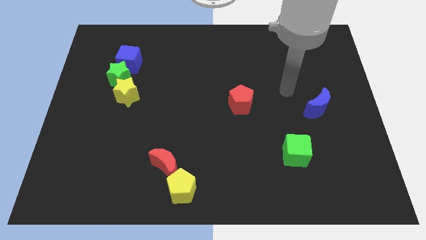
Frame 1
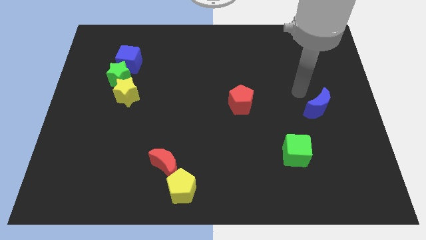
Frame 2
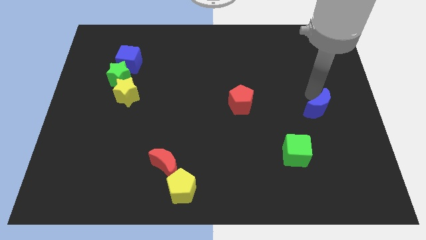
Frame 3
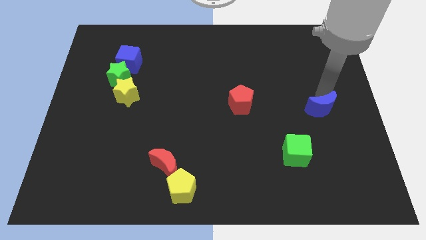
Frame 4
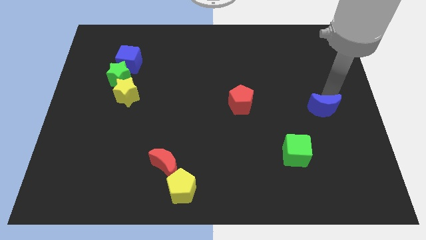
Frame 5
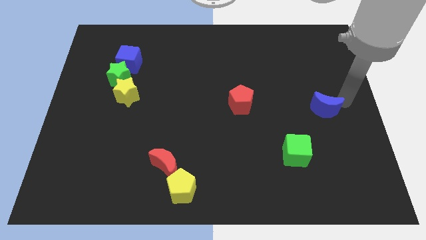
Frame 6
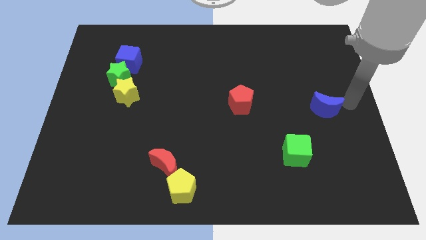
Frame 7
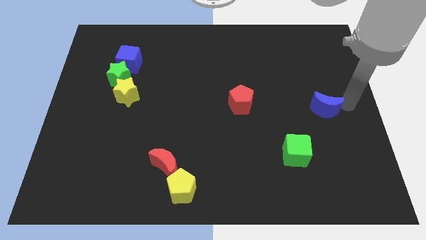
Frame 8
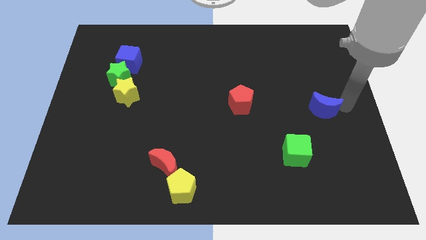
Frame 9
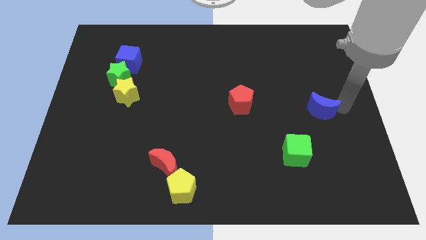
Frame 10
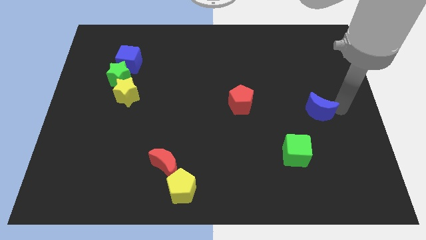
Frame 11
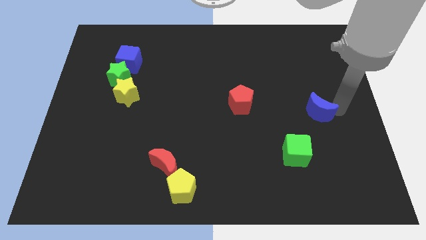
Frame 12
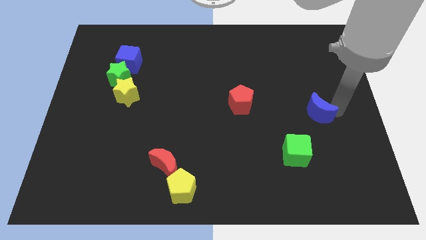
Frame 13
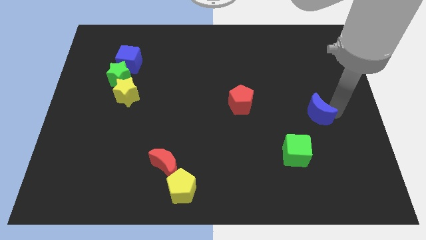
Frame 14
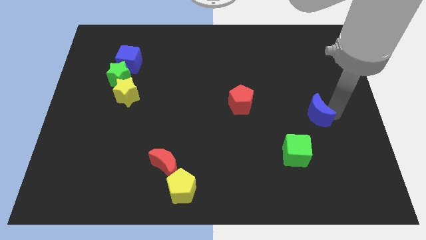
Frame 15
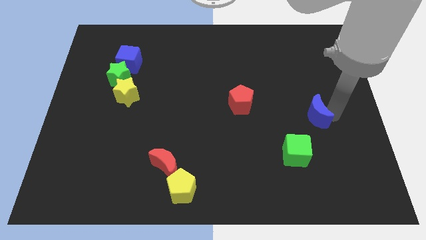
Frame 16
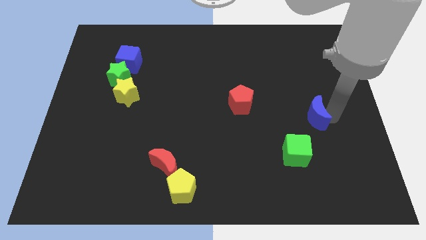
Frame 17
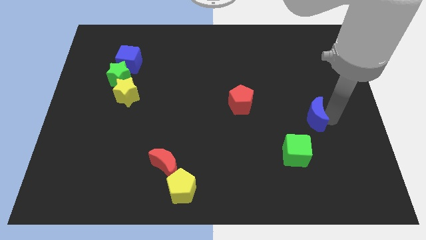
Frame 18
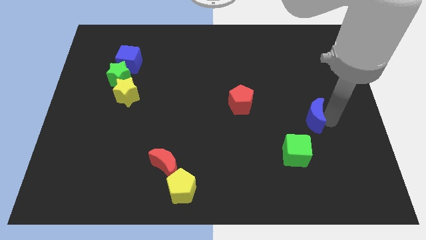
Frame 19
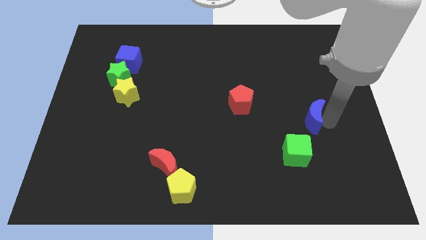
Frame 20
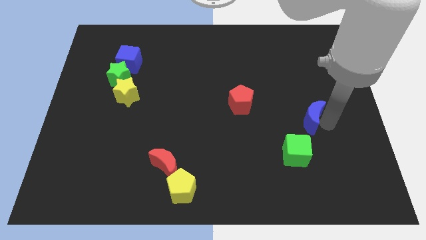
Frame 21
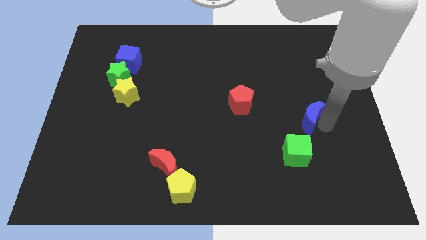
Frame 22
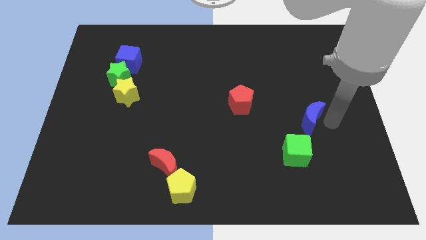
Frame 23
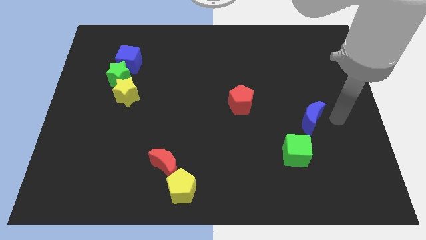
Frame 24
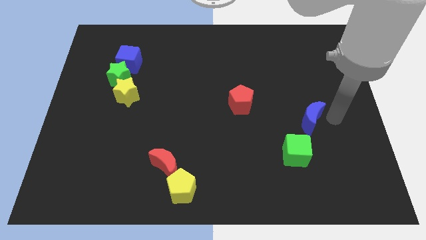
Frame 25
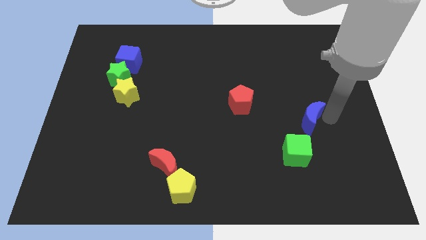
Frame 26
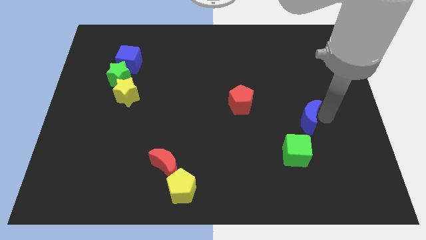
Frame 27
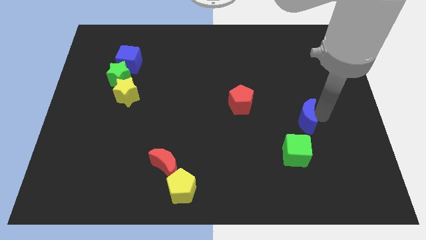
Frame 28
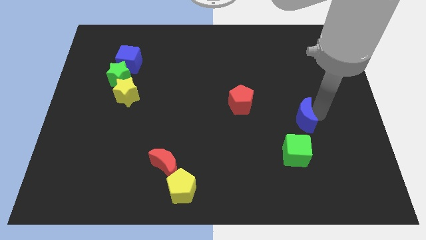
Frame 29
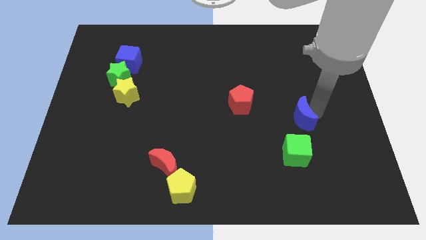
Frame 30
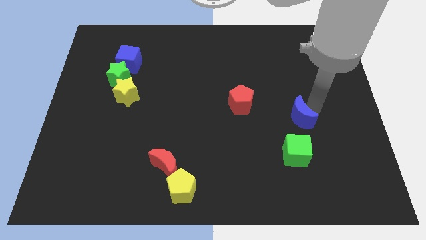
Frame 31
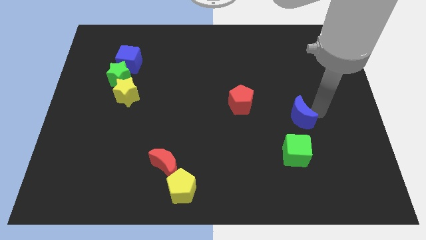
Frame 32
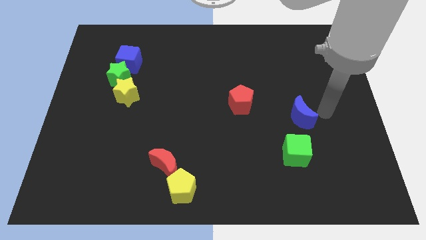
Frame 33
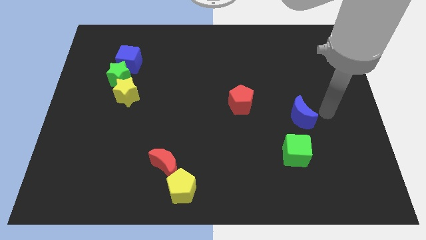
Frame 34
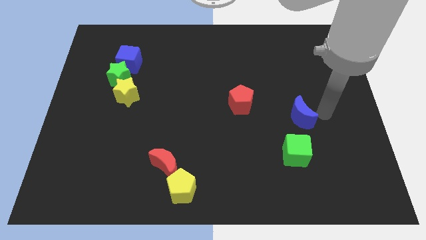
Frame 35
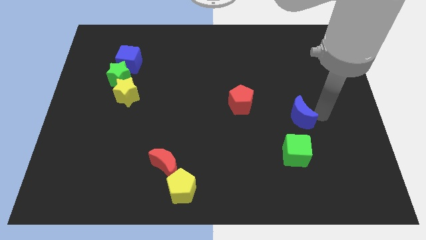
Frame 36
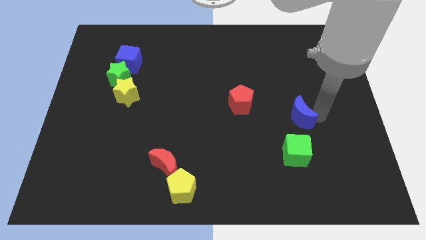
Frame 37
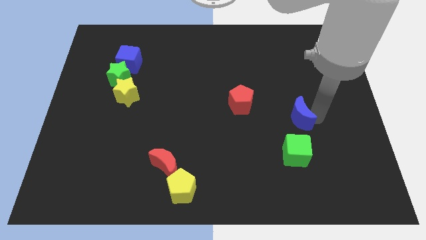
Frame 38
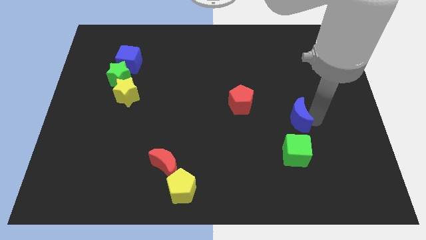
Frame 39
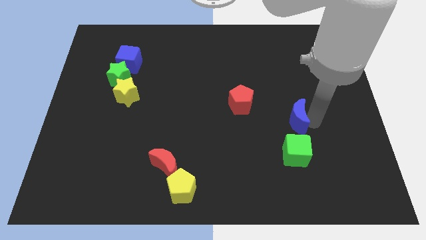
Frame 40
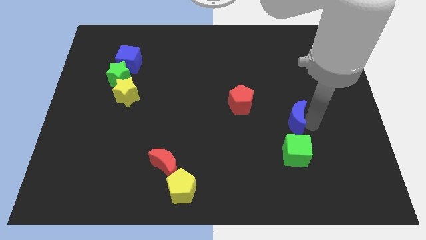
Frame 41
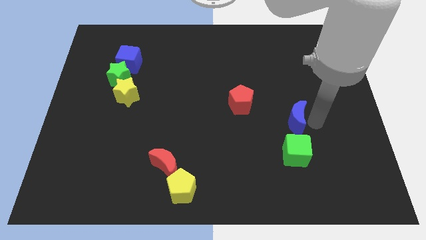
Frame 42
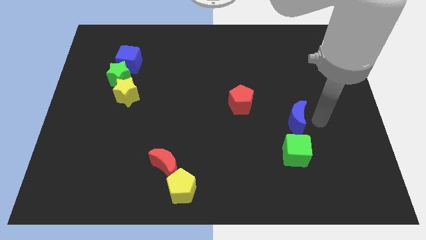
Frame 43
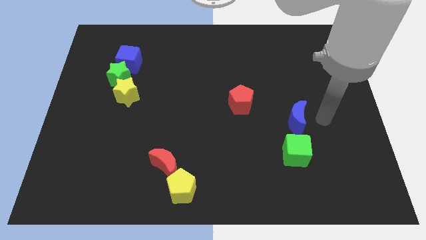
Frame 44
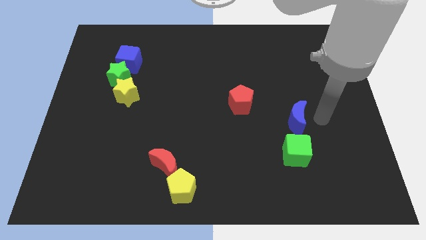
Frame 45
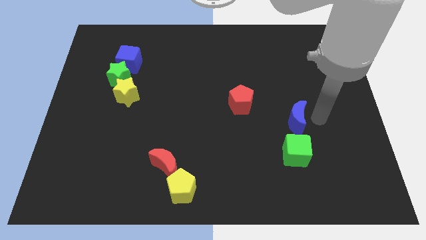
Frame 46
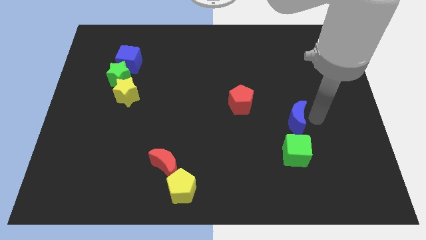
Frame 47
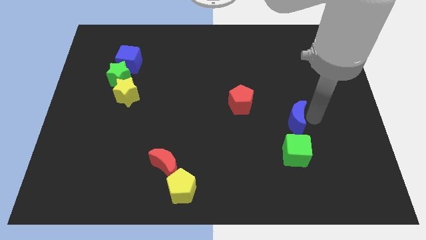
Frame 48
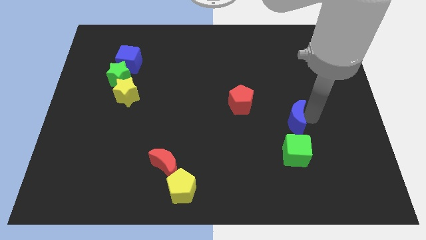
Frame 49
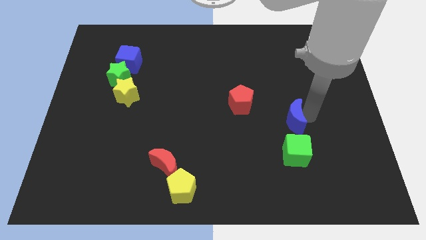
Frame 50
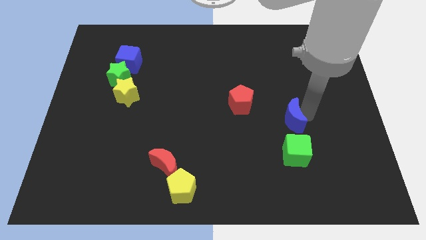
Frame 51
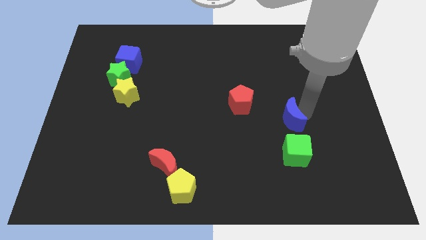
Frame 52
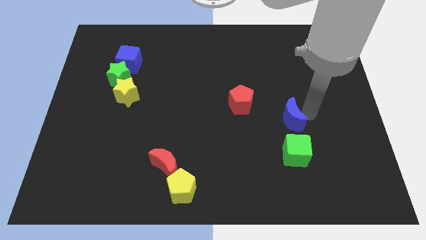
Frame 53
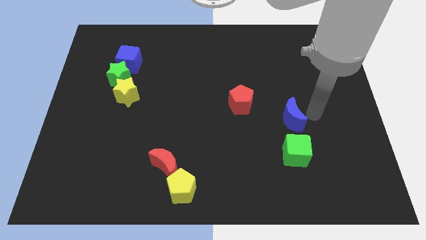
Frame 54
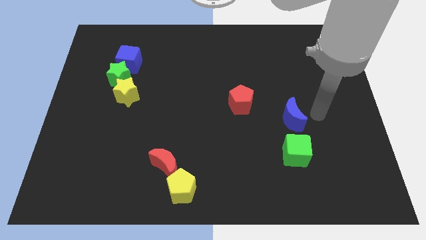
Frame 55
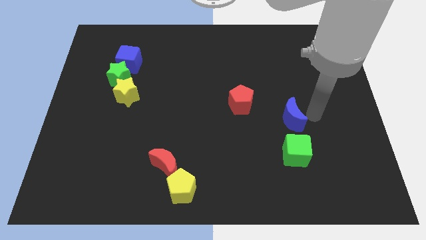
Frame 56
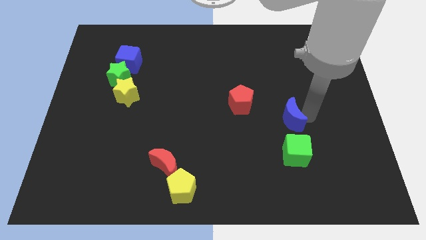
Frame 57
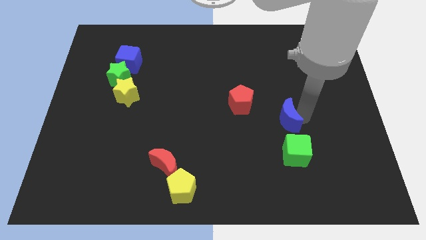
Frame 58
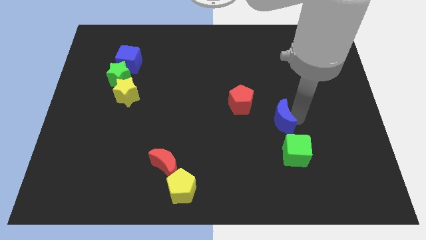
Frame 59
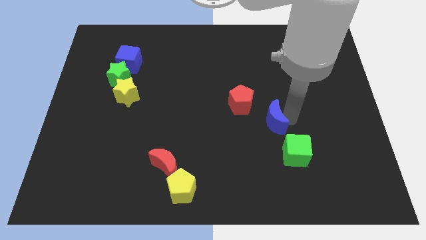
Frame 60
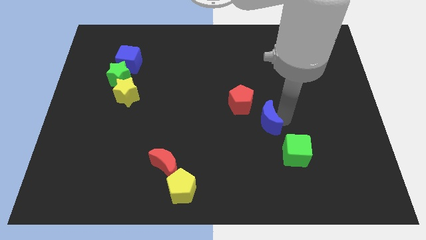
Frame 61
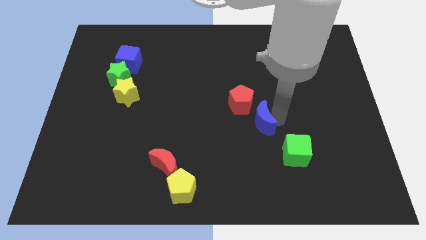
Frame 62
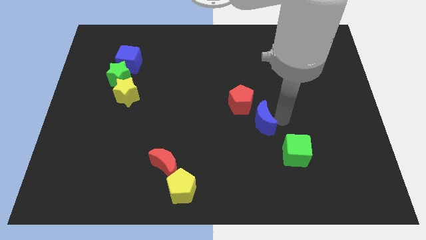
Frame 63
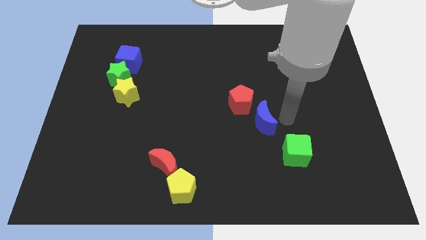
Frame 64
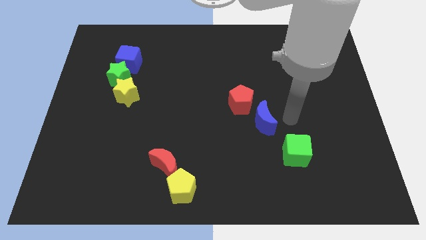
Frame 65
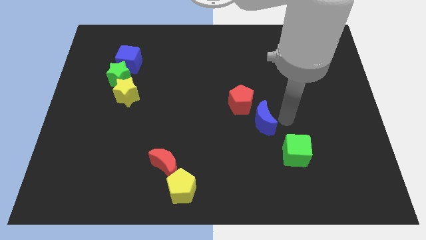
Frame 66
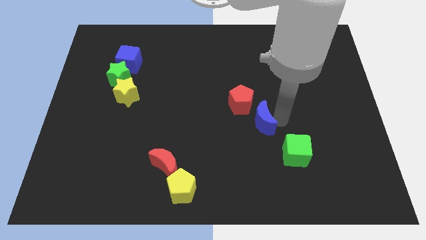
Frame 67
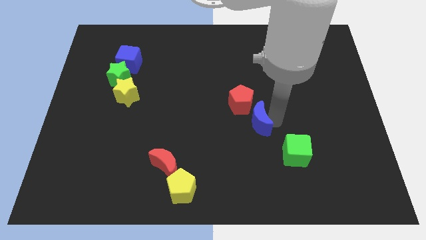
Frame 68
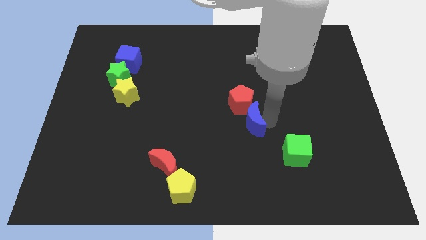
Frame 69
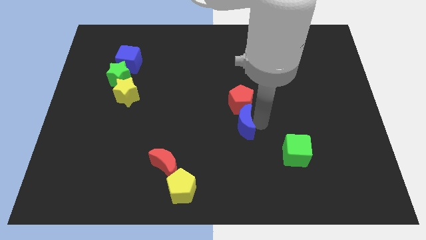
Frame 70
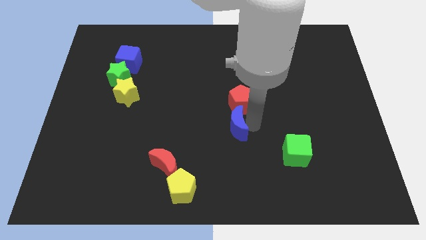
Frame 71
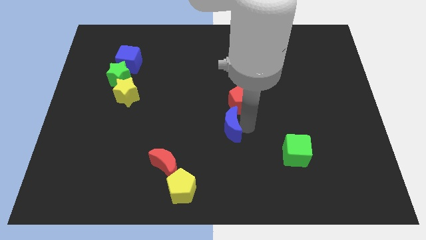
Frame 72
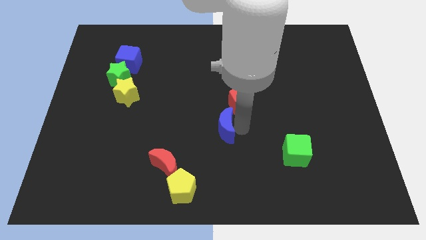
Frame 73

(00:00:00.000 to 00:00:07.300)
slide the blue moon left

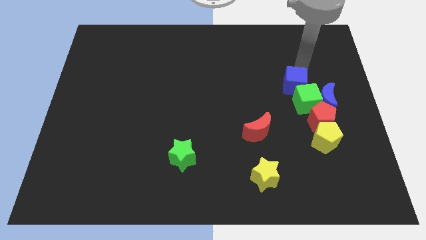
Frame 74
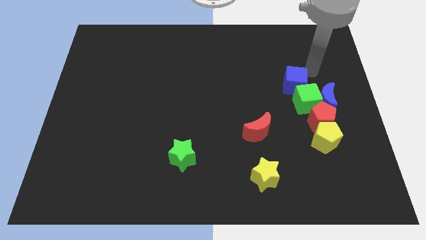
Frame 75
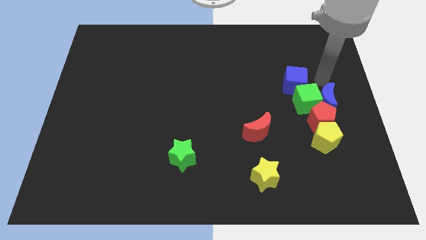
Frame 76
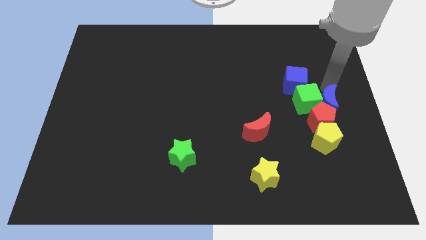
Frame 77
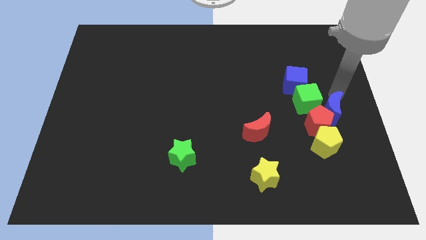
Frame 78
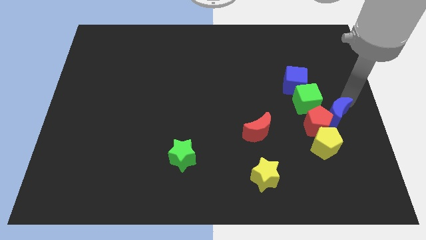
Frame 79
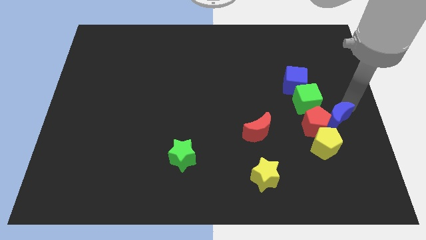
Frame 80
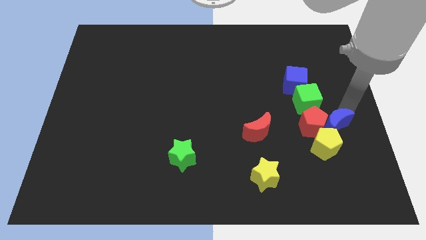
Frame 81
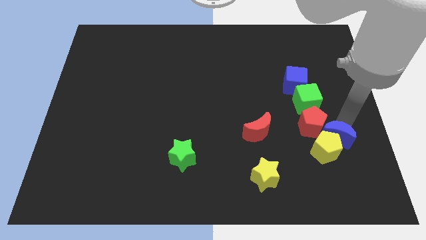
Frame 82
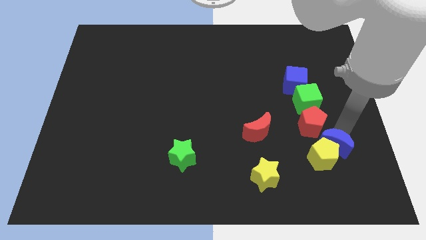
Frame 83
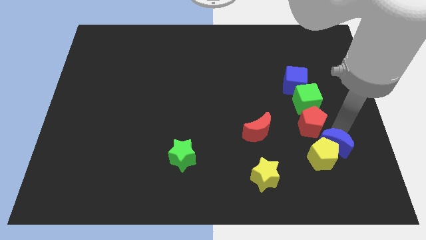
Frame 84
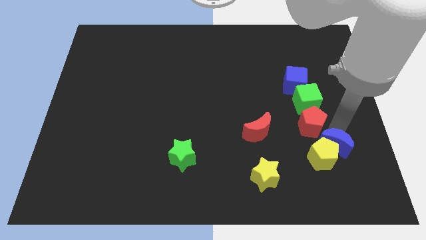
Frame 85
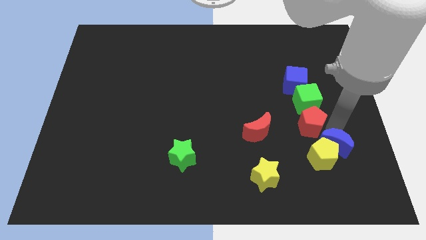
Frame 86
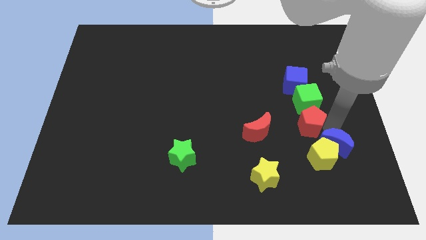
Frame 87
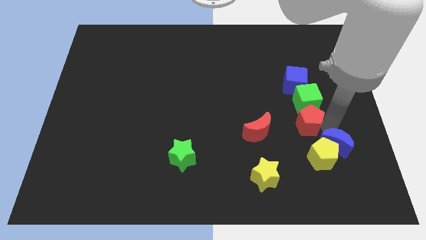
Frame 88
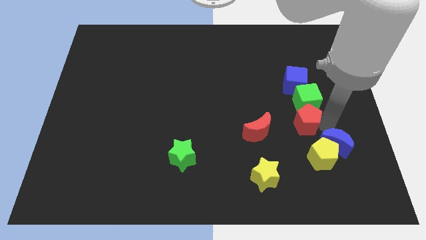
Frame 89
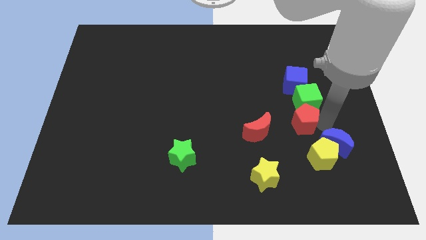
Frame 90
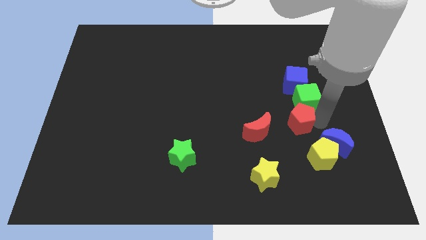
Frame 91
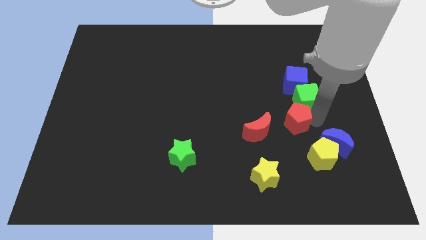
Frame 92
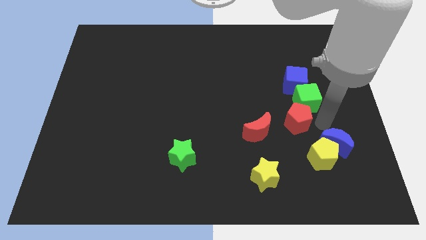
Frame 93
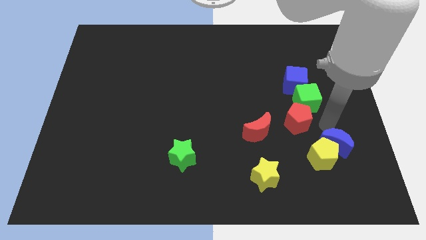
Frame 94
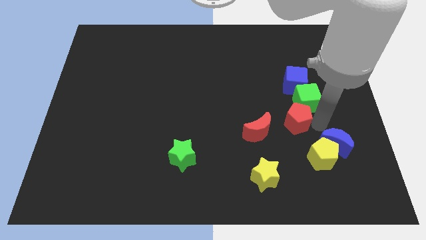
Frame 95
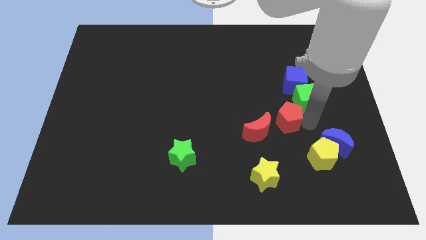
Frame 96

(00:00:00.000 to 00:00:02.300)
slide the red pentagon somewhat to the left
